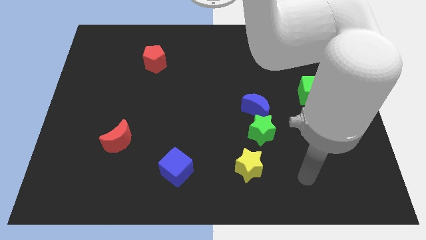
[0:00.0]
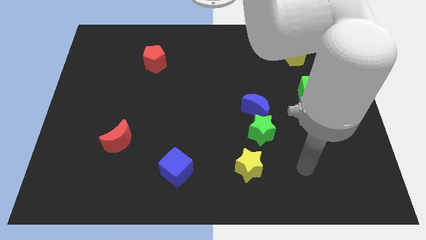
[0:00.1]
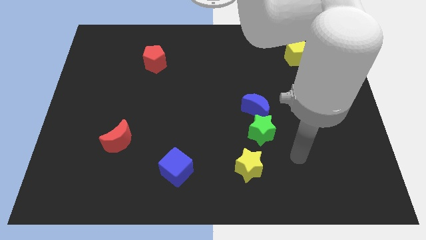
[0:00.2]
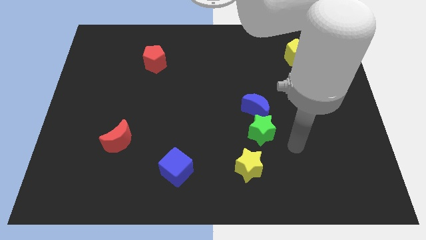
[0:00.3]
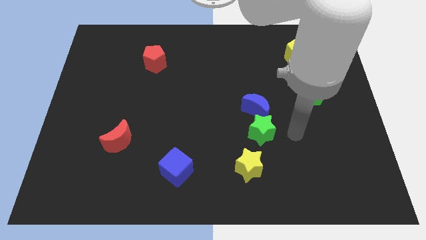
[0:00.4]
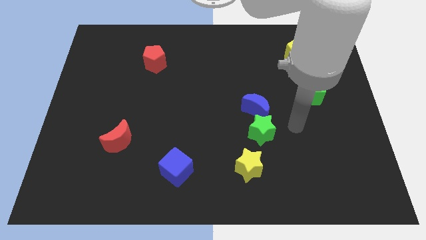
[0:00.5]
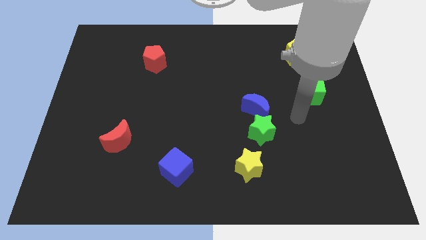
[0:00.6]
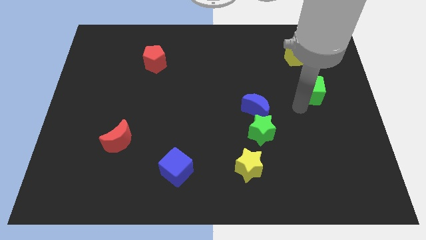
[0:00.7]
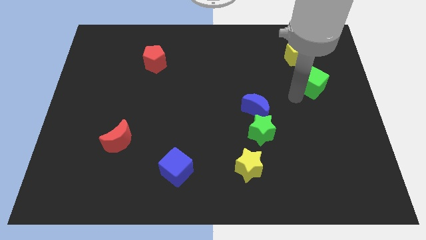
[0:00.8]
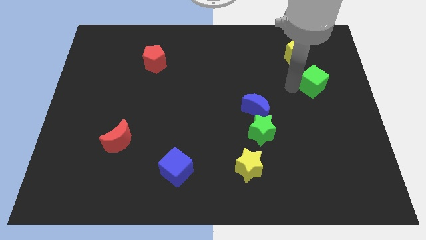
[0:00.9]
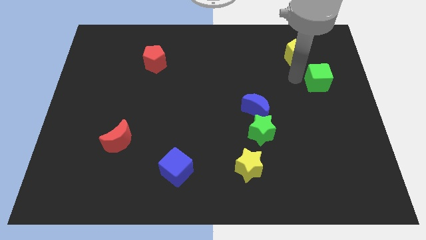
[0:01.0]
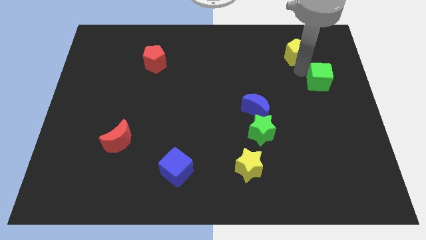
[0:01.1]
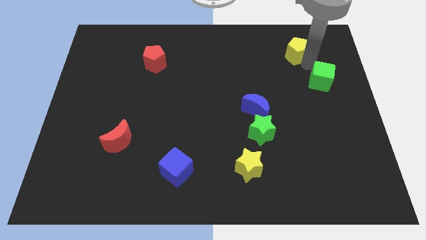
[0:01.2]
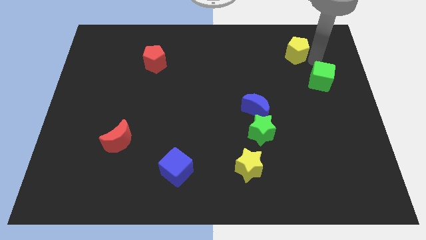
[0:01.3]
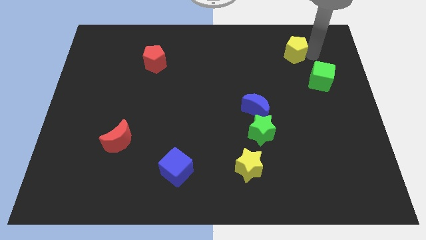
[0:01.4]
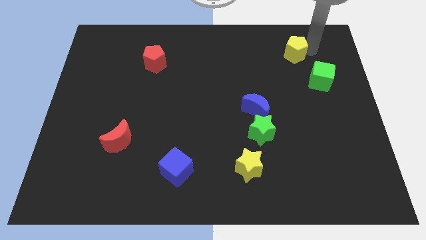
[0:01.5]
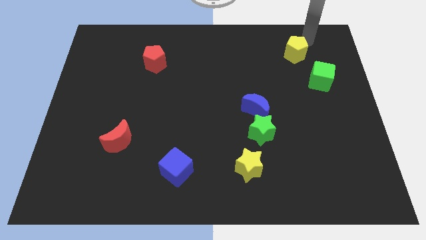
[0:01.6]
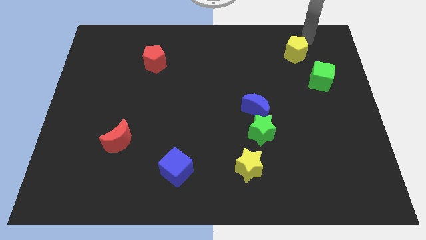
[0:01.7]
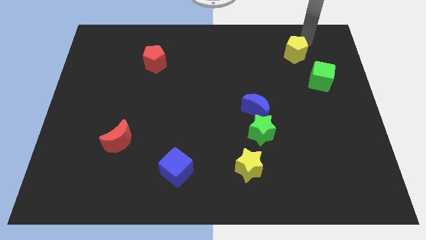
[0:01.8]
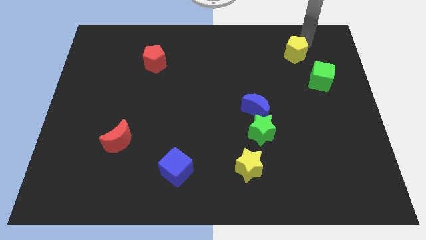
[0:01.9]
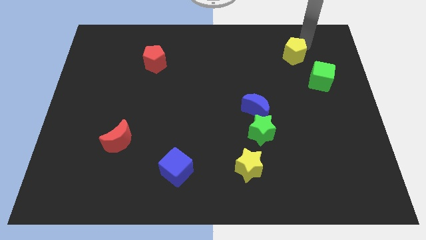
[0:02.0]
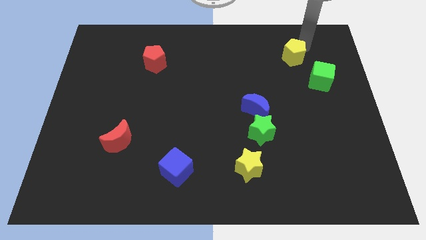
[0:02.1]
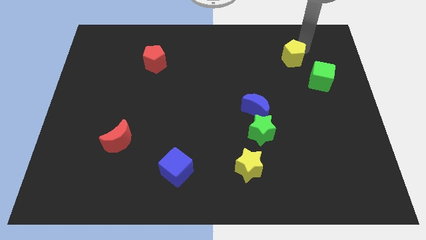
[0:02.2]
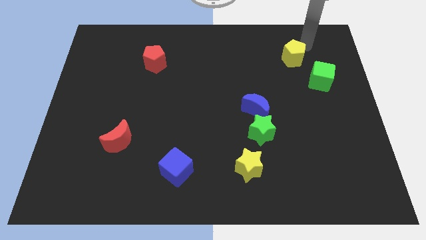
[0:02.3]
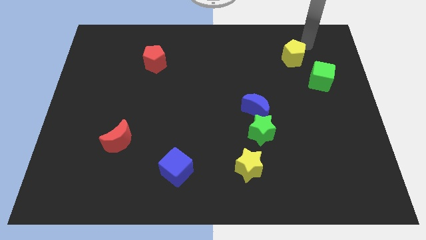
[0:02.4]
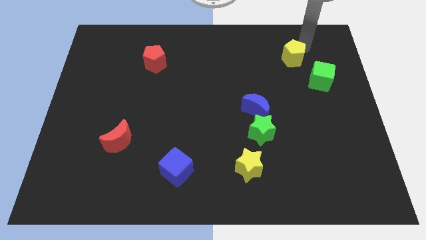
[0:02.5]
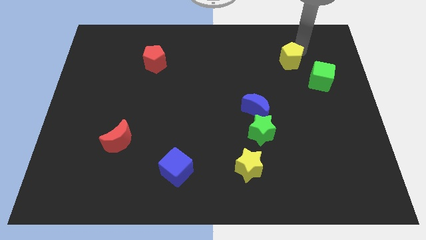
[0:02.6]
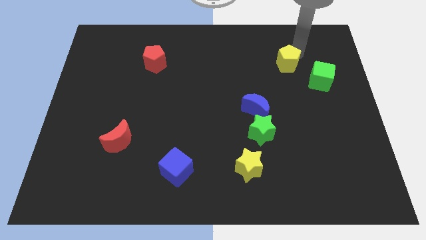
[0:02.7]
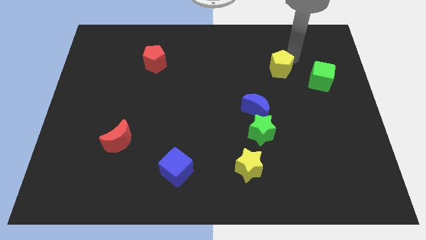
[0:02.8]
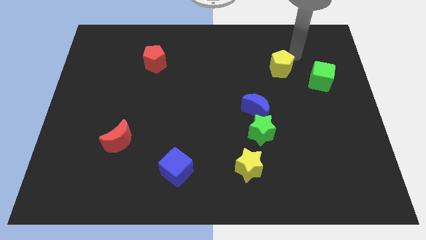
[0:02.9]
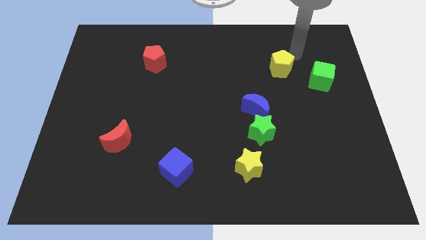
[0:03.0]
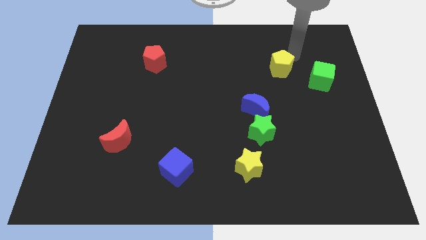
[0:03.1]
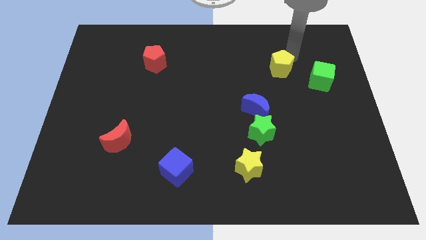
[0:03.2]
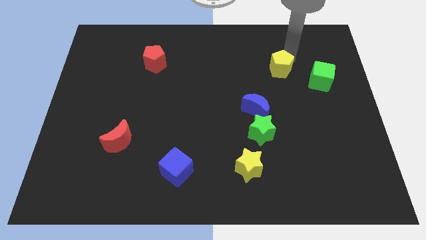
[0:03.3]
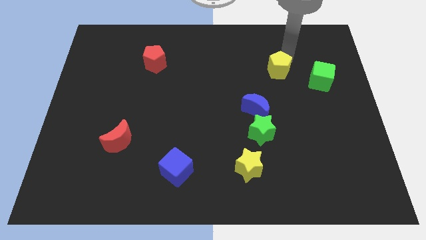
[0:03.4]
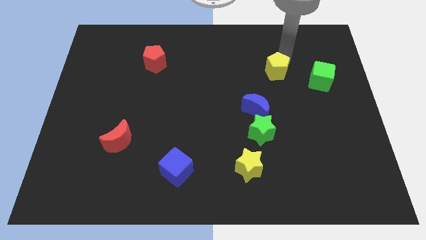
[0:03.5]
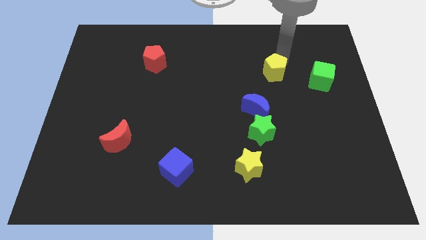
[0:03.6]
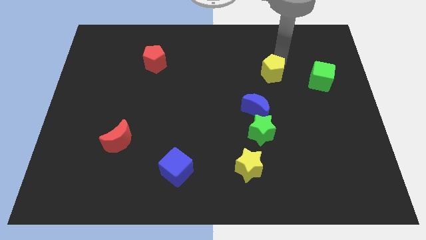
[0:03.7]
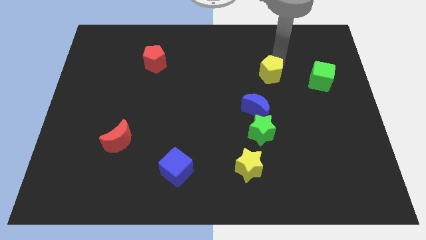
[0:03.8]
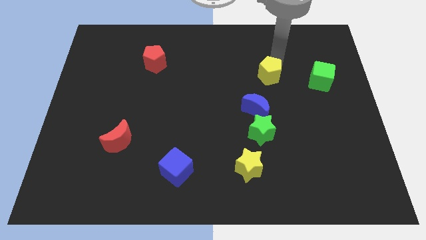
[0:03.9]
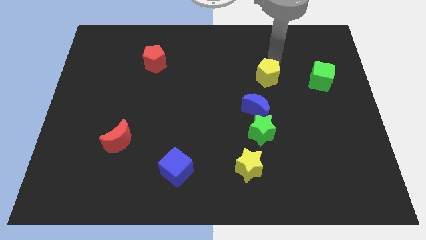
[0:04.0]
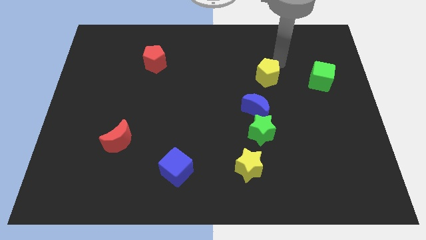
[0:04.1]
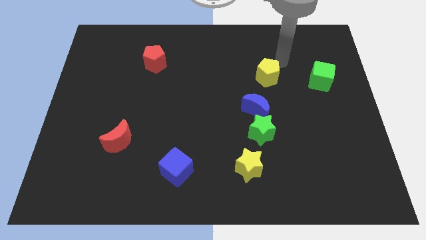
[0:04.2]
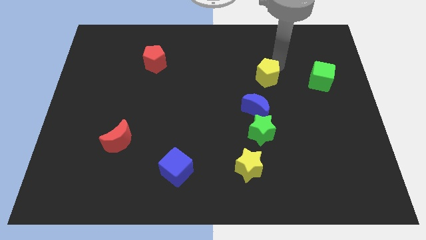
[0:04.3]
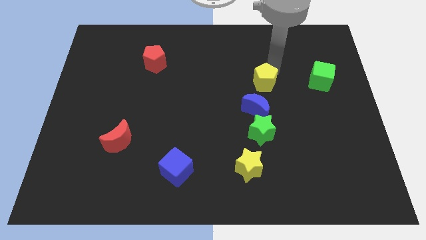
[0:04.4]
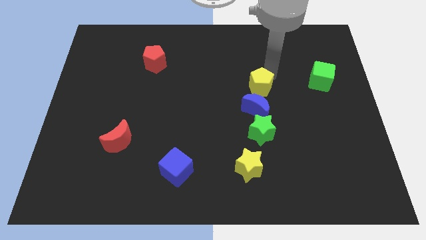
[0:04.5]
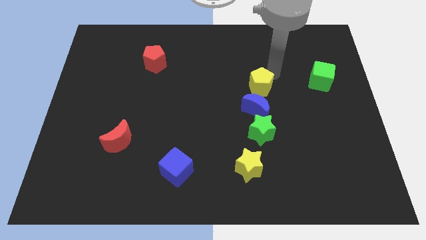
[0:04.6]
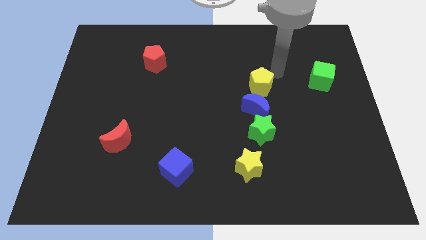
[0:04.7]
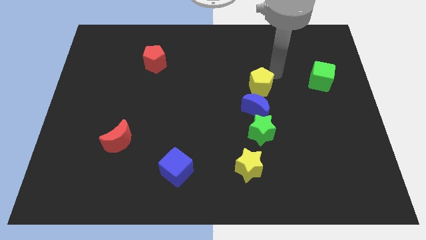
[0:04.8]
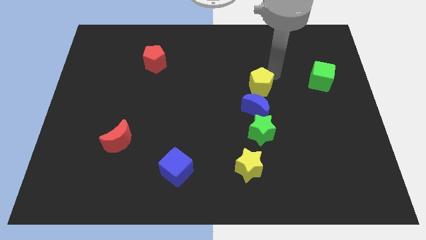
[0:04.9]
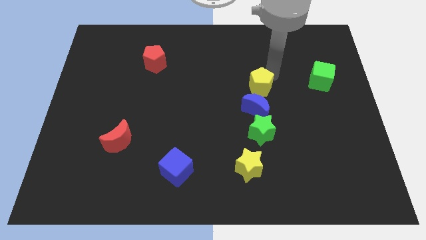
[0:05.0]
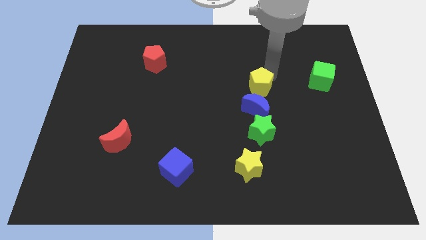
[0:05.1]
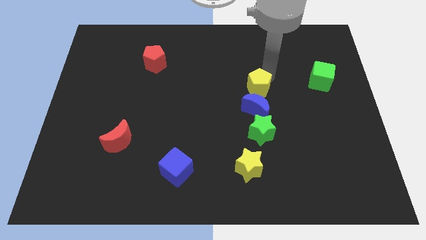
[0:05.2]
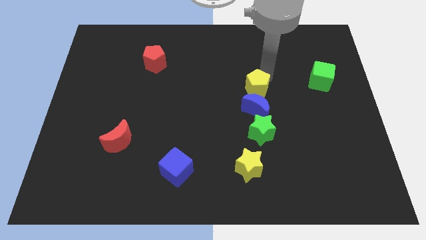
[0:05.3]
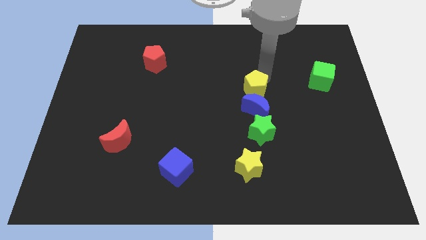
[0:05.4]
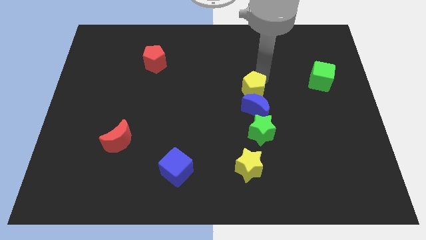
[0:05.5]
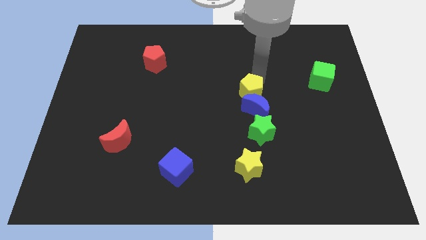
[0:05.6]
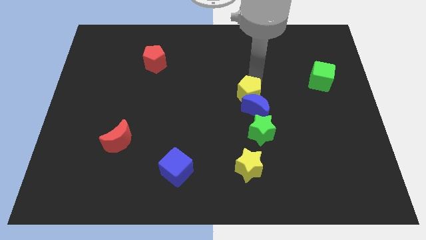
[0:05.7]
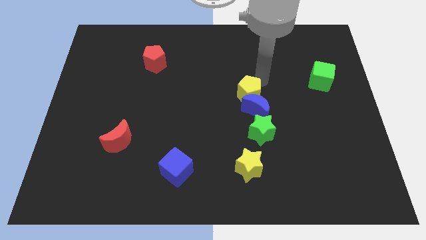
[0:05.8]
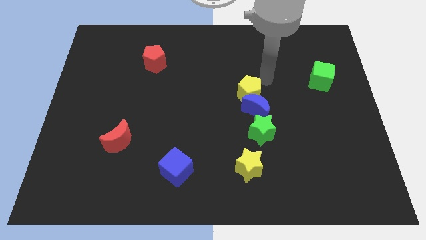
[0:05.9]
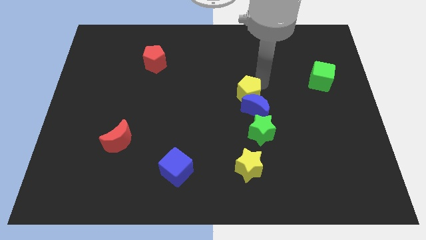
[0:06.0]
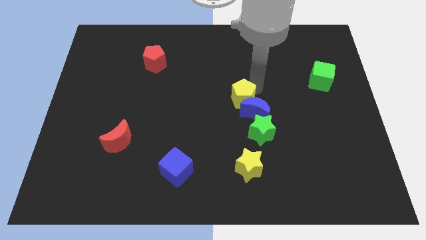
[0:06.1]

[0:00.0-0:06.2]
push the yellow pentagon down and then to the left

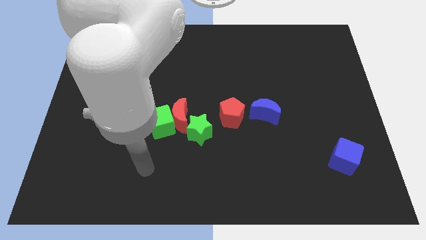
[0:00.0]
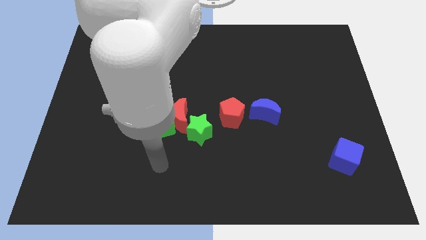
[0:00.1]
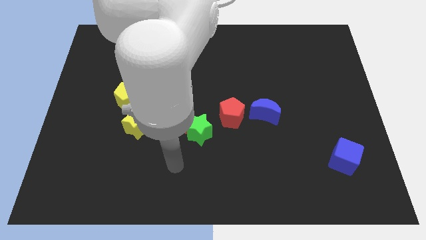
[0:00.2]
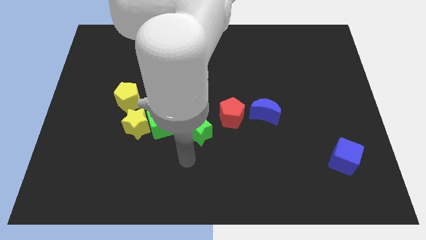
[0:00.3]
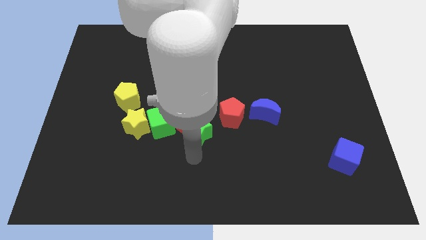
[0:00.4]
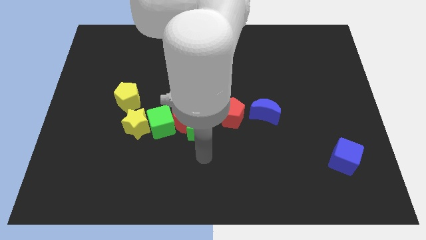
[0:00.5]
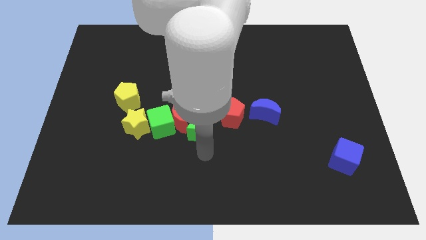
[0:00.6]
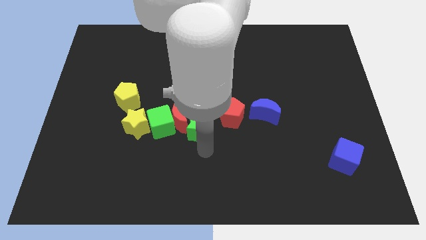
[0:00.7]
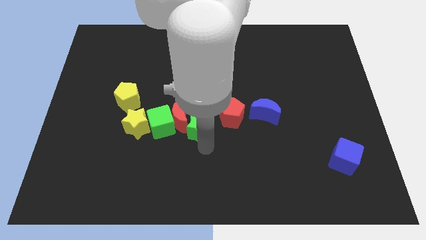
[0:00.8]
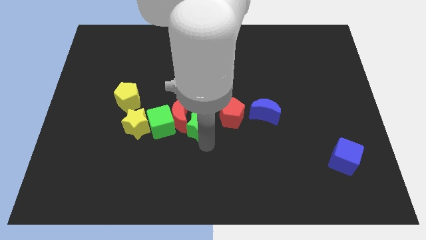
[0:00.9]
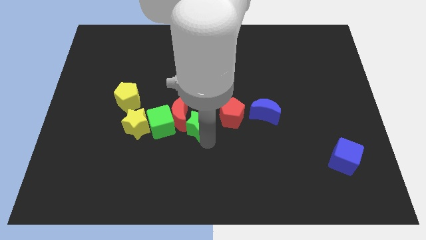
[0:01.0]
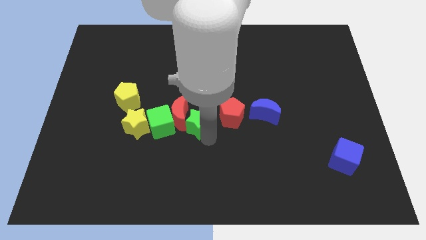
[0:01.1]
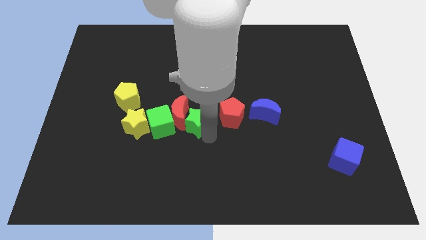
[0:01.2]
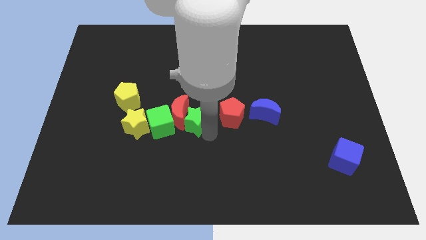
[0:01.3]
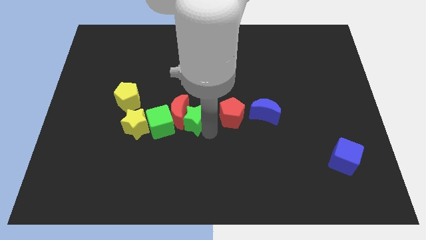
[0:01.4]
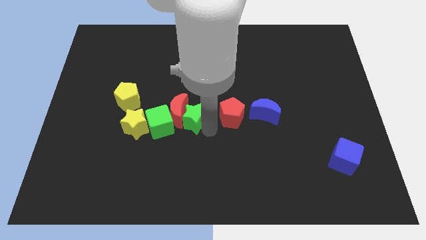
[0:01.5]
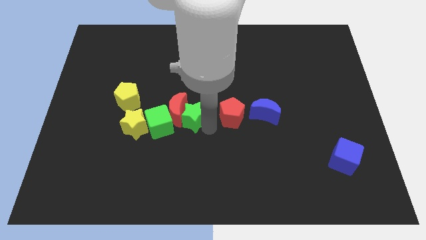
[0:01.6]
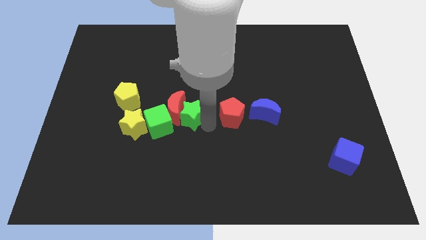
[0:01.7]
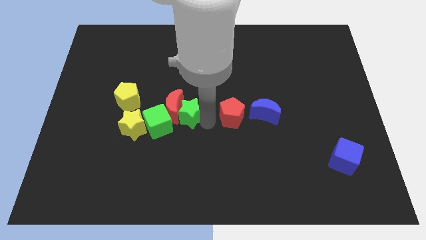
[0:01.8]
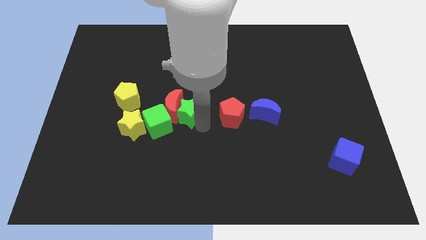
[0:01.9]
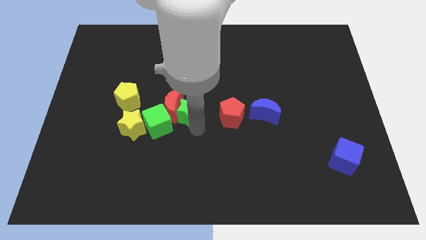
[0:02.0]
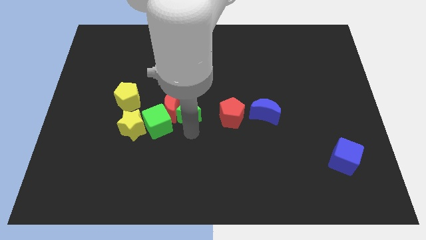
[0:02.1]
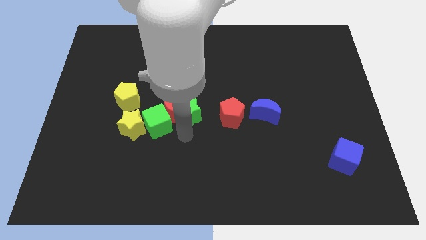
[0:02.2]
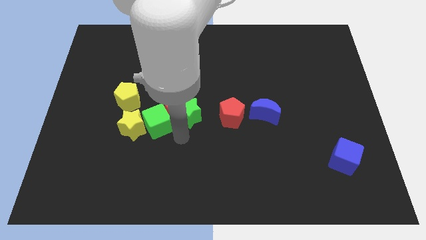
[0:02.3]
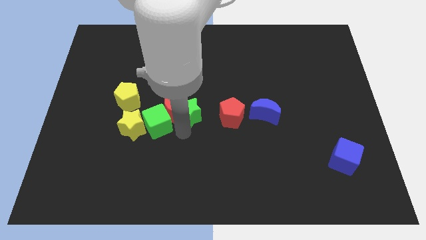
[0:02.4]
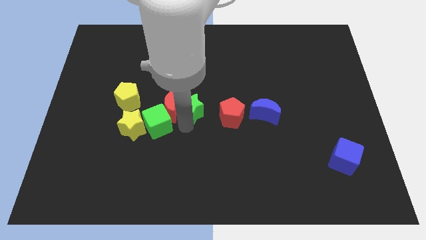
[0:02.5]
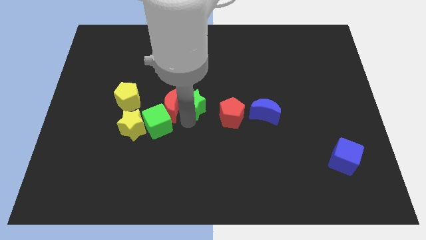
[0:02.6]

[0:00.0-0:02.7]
slightly slide the green star up
